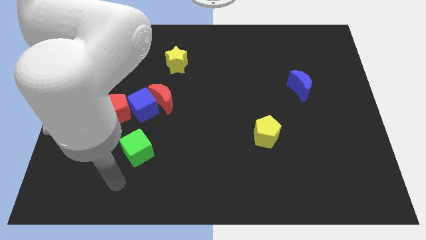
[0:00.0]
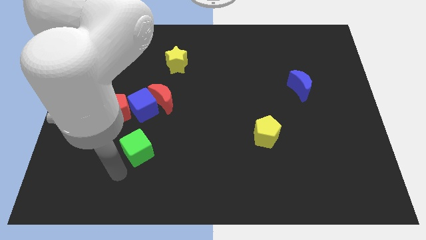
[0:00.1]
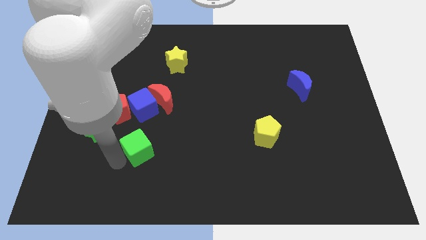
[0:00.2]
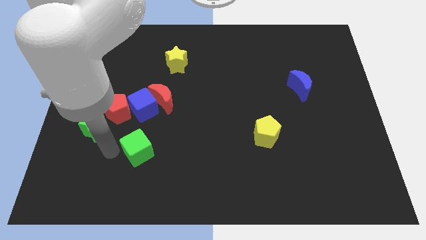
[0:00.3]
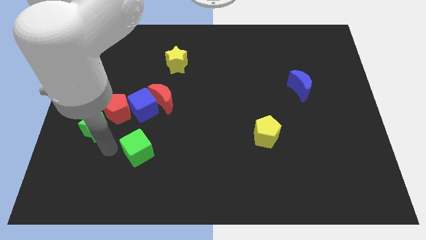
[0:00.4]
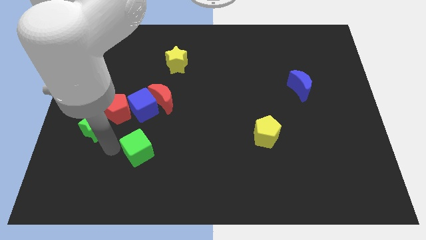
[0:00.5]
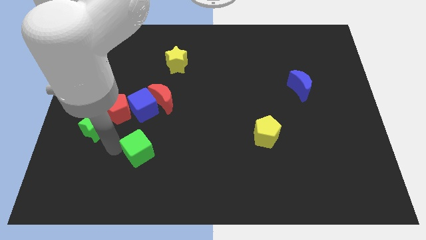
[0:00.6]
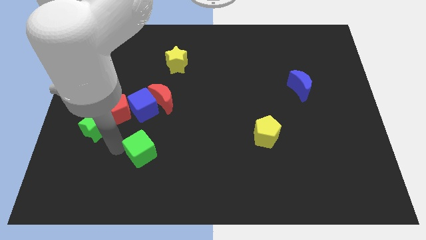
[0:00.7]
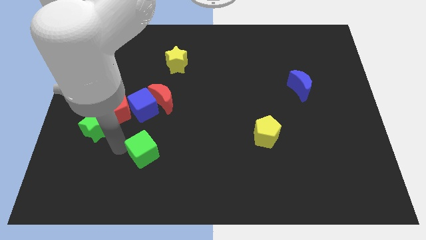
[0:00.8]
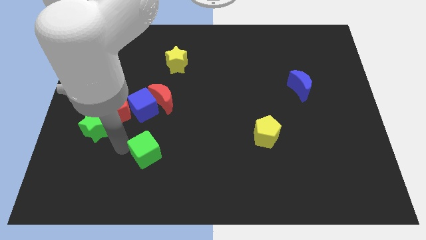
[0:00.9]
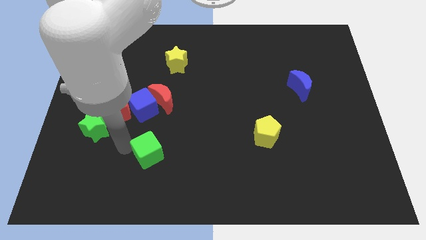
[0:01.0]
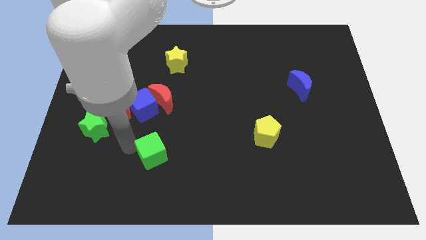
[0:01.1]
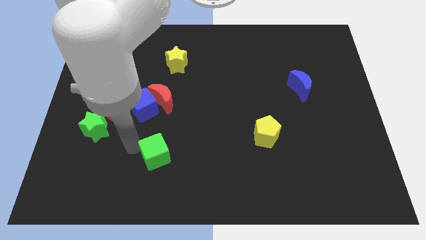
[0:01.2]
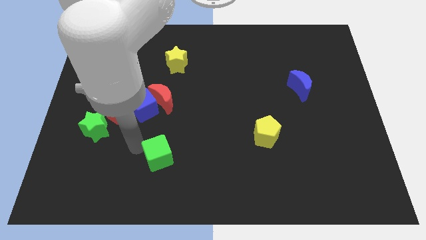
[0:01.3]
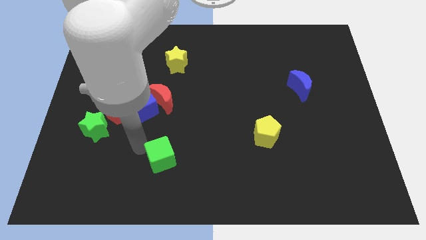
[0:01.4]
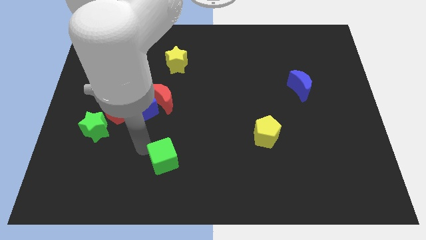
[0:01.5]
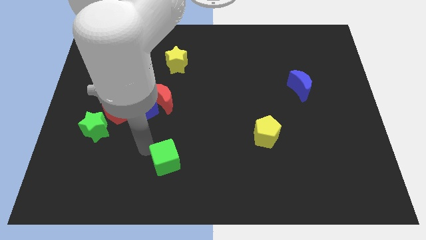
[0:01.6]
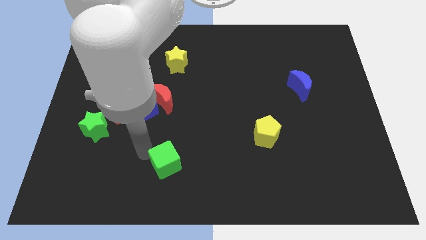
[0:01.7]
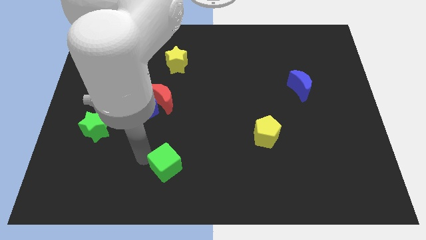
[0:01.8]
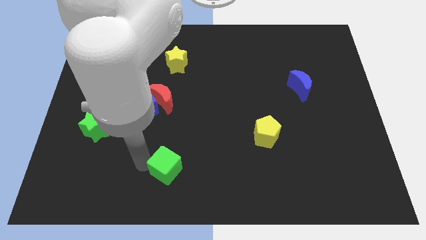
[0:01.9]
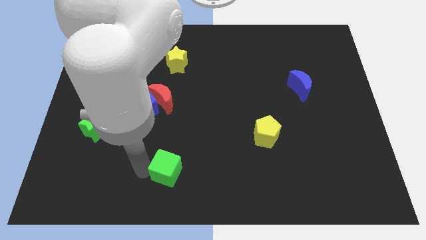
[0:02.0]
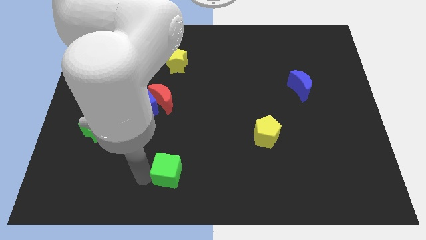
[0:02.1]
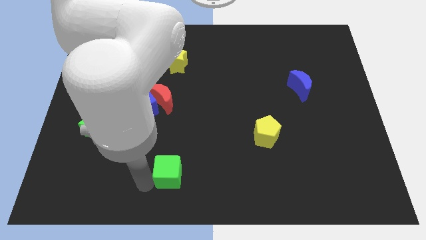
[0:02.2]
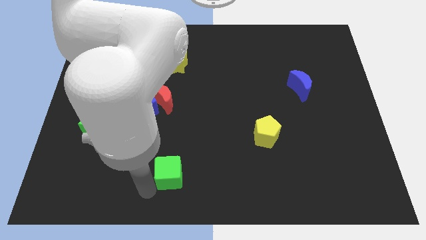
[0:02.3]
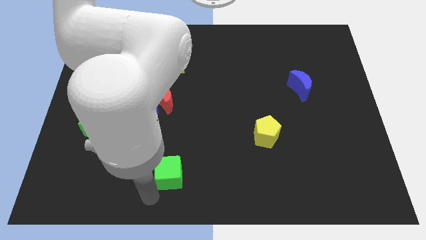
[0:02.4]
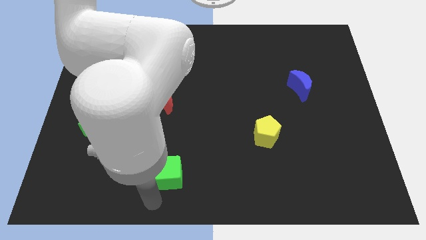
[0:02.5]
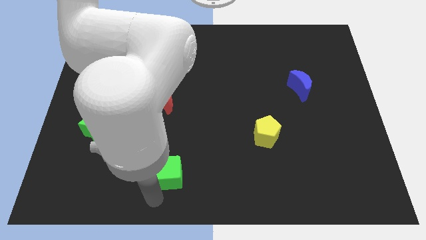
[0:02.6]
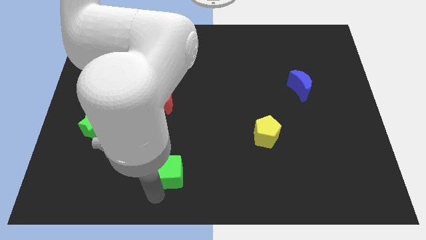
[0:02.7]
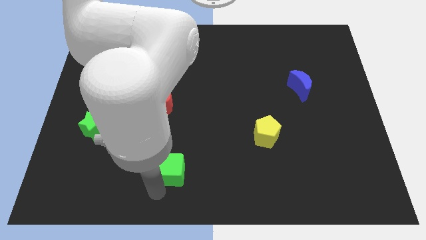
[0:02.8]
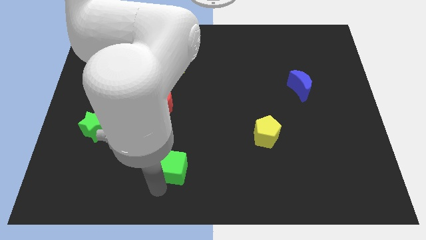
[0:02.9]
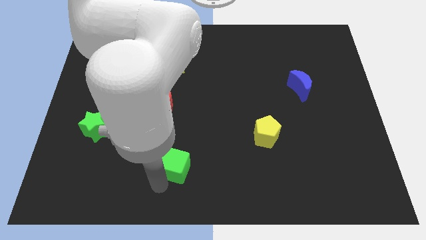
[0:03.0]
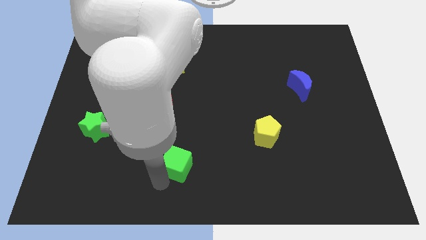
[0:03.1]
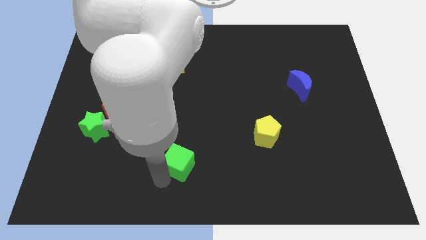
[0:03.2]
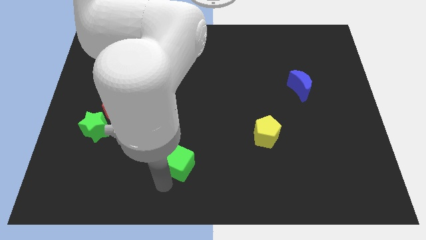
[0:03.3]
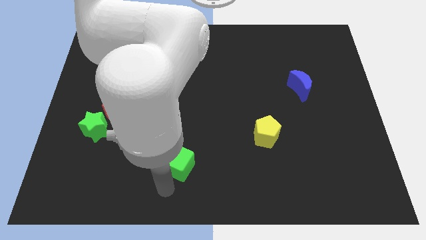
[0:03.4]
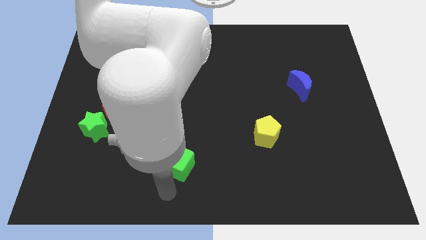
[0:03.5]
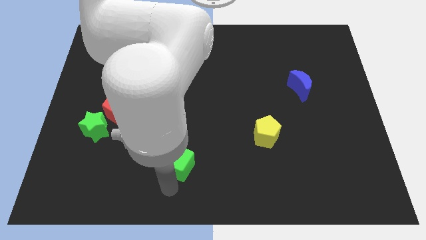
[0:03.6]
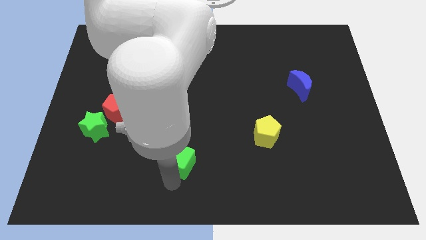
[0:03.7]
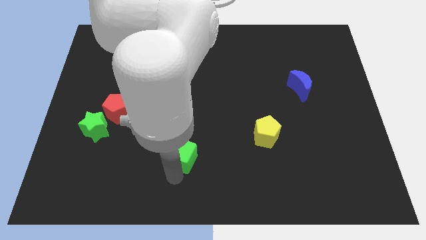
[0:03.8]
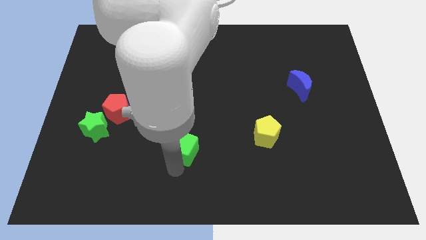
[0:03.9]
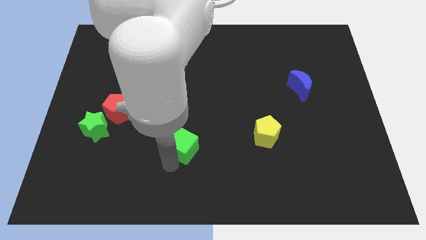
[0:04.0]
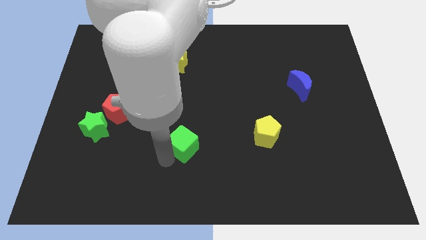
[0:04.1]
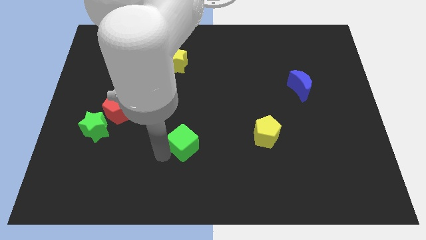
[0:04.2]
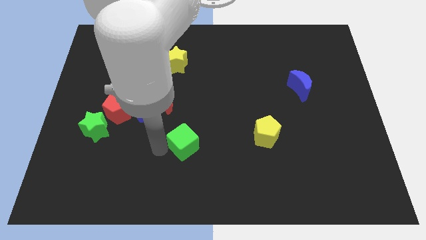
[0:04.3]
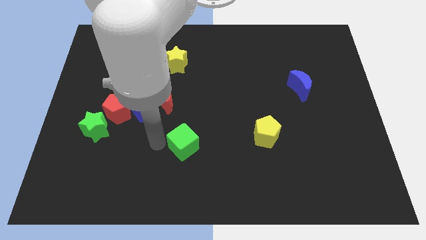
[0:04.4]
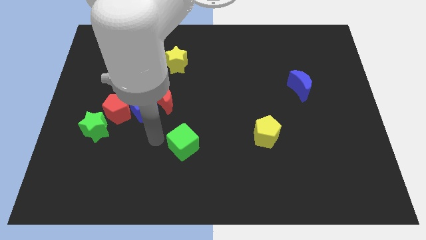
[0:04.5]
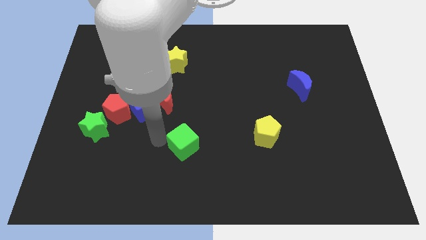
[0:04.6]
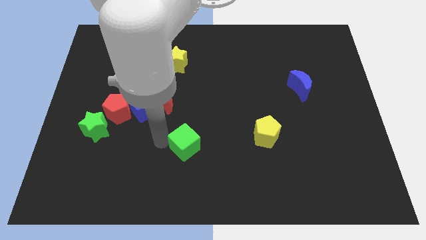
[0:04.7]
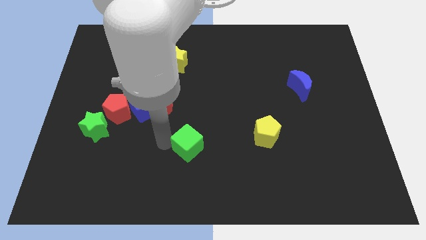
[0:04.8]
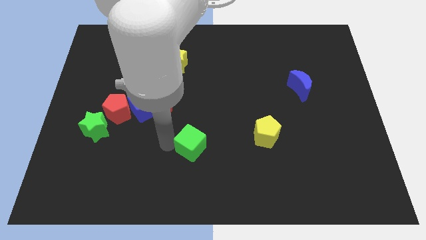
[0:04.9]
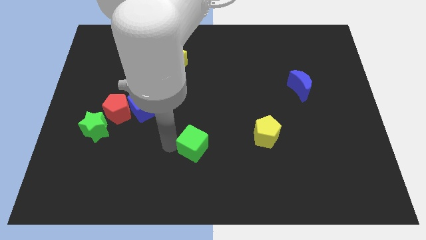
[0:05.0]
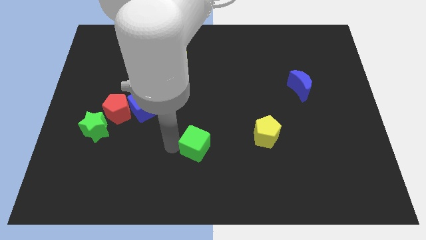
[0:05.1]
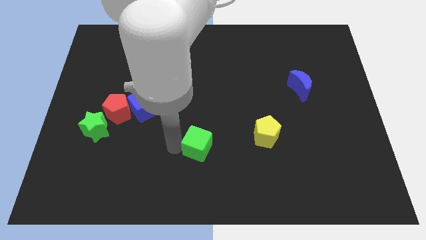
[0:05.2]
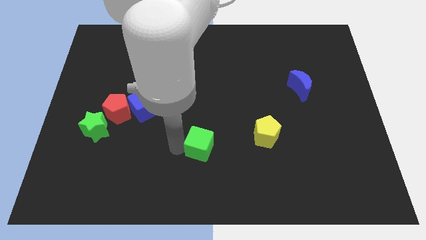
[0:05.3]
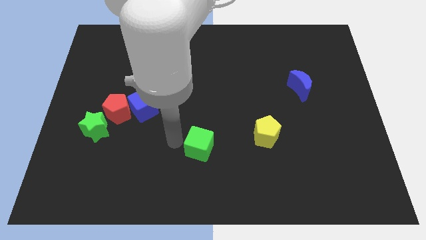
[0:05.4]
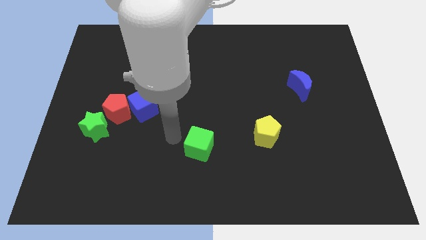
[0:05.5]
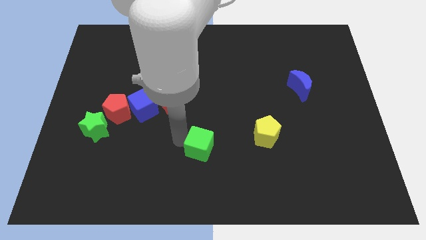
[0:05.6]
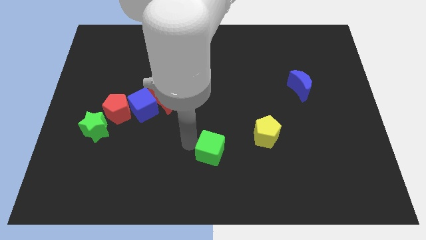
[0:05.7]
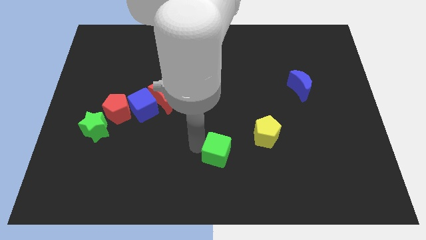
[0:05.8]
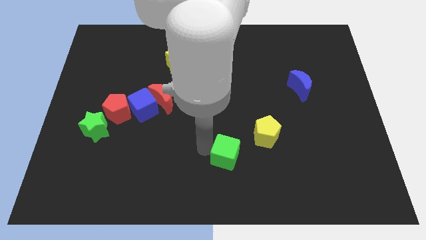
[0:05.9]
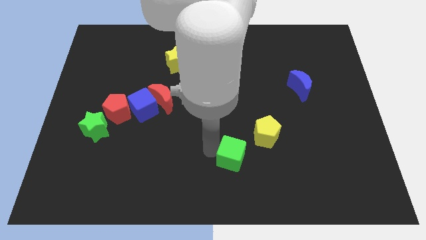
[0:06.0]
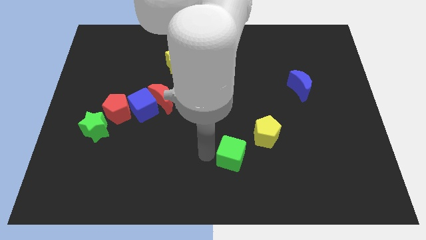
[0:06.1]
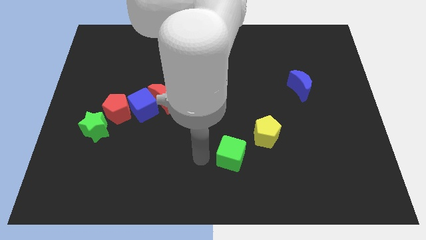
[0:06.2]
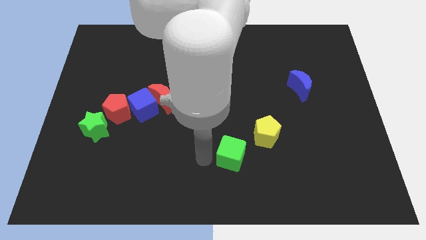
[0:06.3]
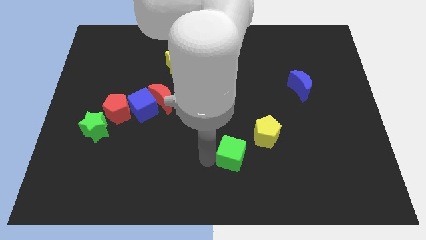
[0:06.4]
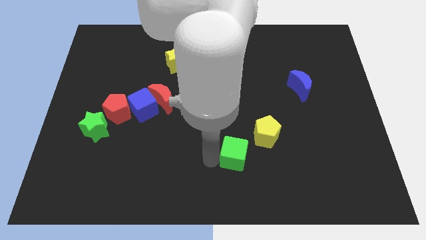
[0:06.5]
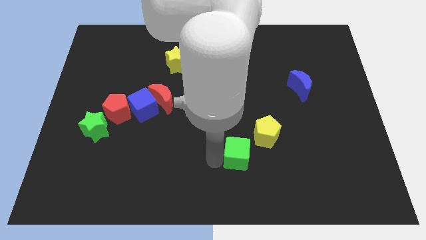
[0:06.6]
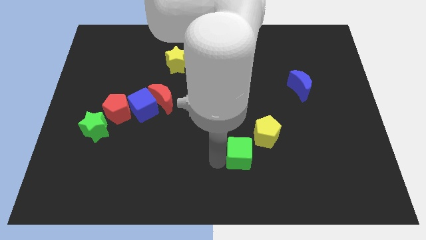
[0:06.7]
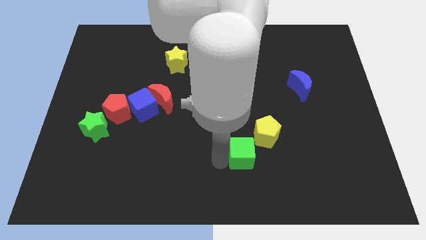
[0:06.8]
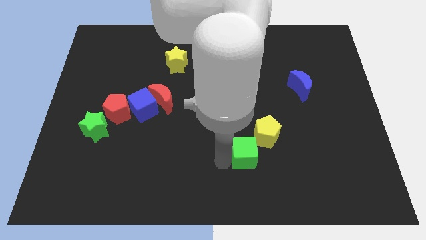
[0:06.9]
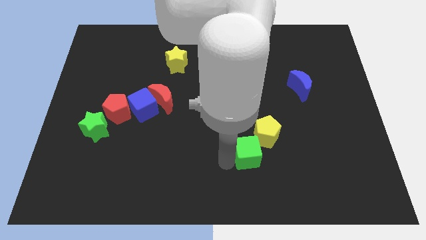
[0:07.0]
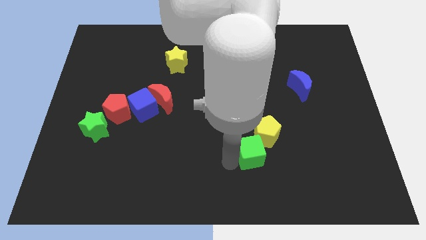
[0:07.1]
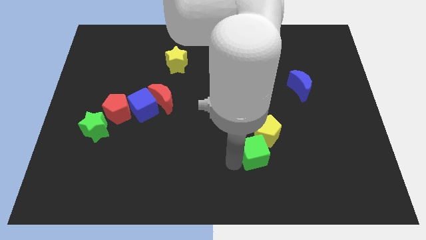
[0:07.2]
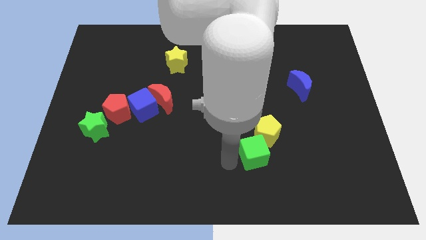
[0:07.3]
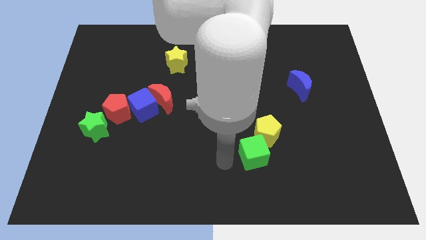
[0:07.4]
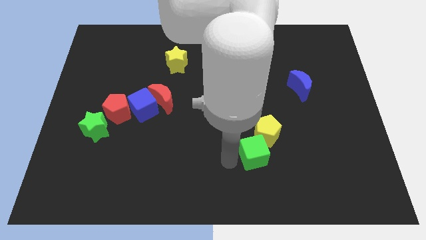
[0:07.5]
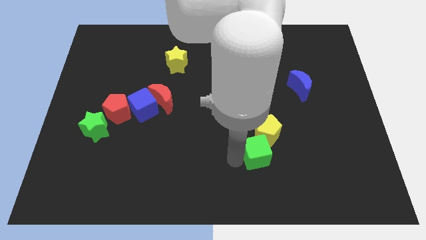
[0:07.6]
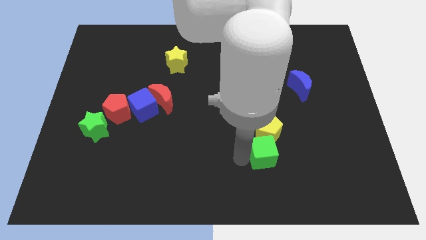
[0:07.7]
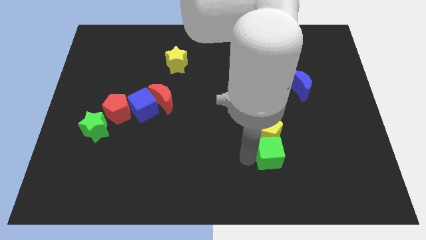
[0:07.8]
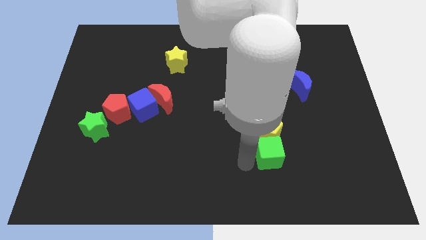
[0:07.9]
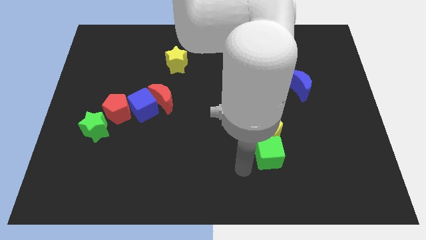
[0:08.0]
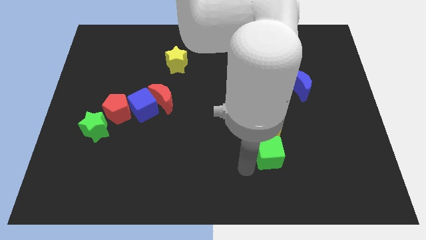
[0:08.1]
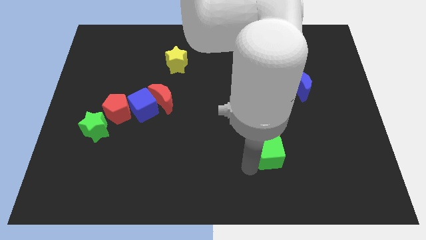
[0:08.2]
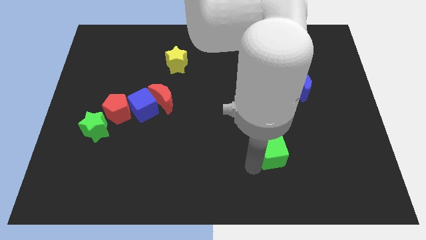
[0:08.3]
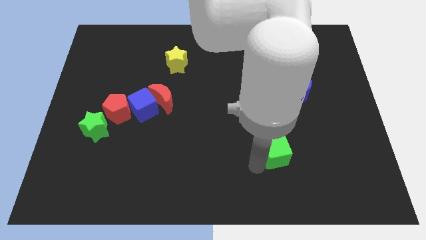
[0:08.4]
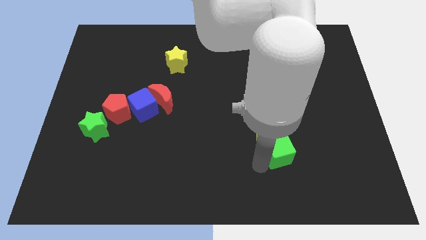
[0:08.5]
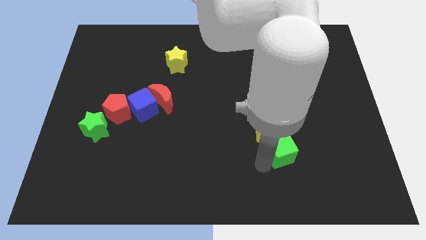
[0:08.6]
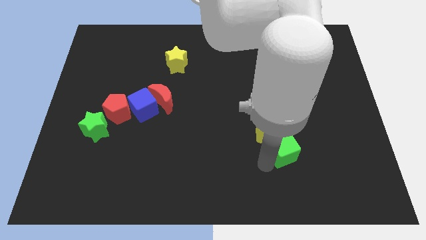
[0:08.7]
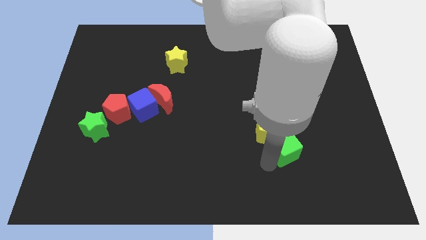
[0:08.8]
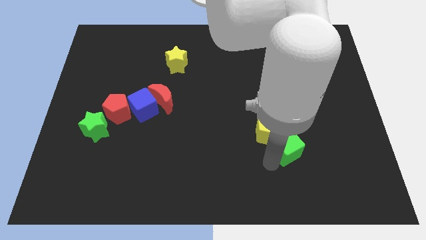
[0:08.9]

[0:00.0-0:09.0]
push the green cube right of the yellow pentagon
